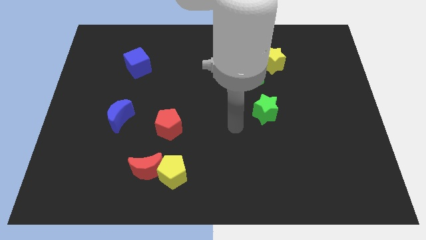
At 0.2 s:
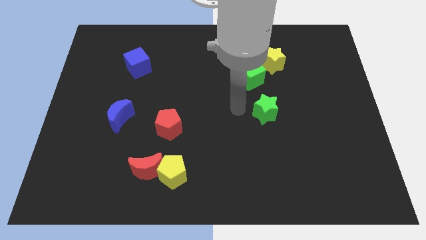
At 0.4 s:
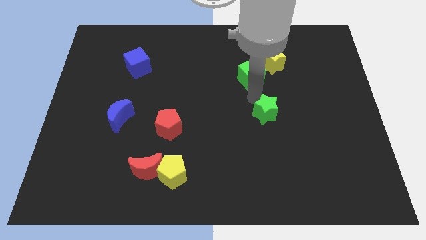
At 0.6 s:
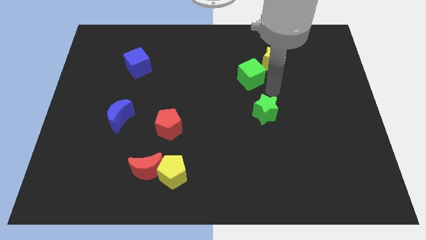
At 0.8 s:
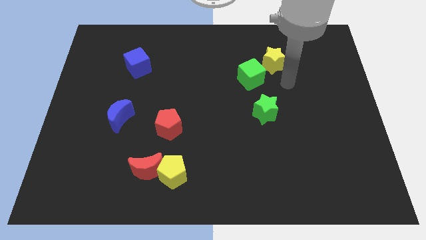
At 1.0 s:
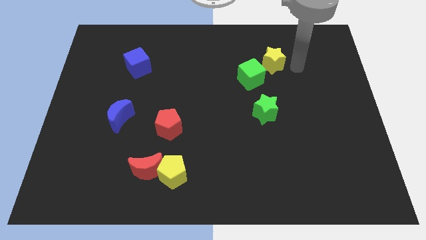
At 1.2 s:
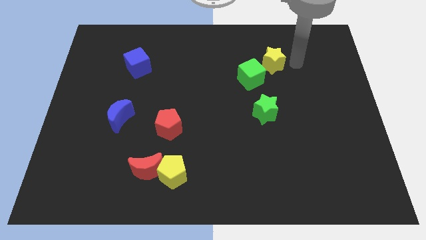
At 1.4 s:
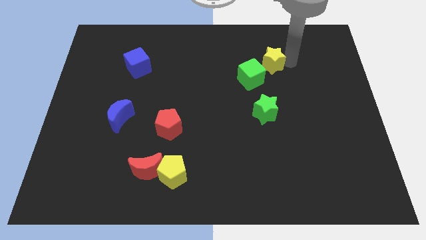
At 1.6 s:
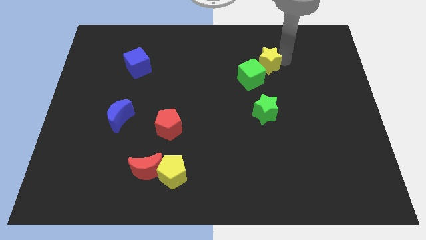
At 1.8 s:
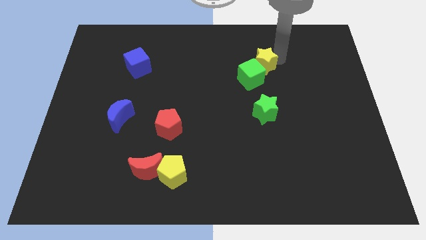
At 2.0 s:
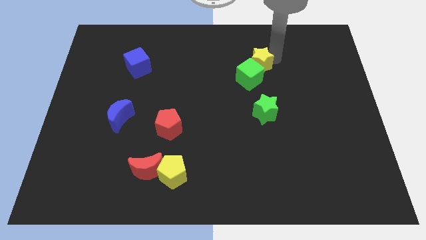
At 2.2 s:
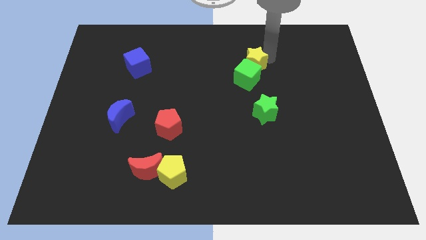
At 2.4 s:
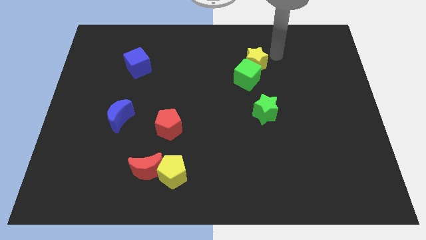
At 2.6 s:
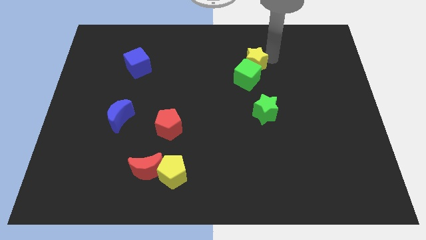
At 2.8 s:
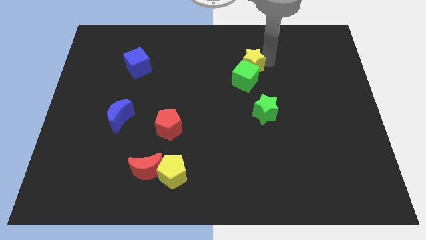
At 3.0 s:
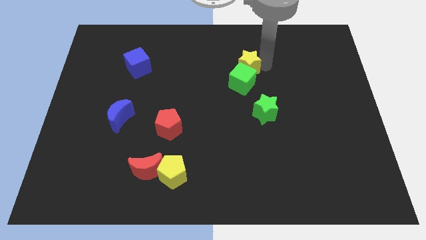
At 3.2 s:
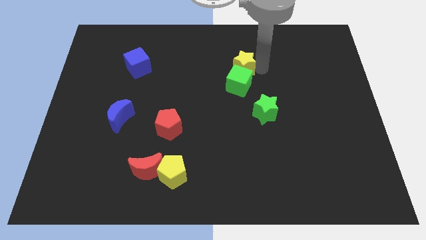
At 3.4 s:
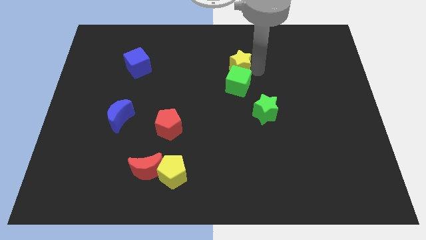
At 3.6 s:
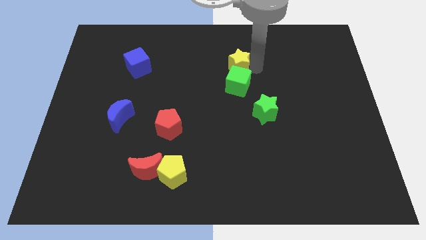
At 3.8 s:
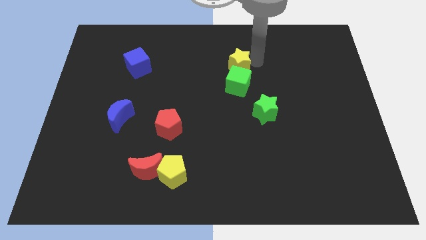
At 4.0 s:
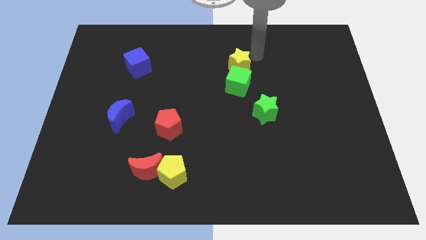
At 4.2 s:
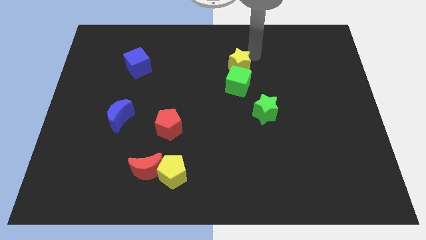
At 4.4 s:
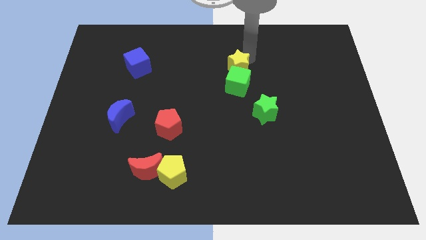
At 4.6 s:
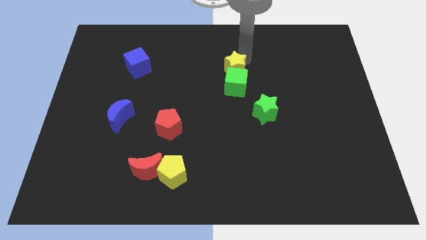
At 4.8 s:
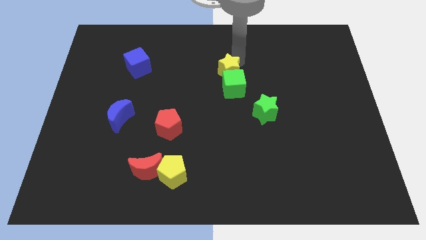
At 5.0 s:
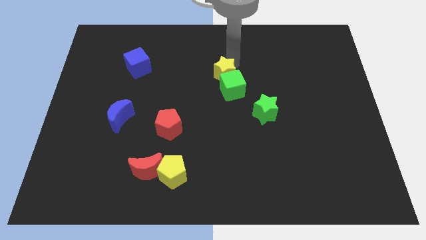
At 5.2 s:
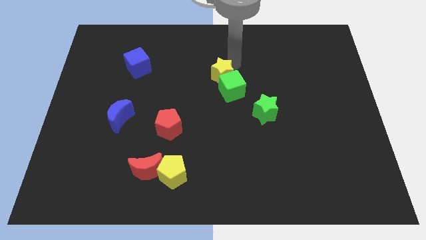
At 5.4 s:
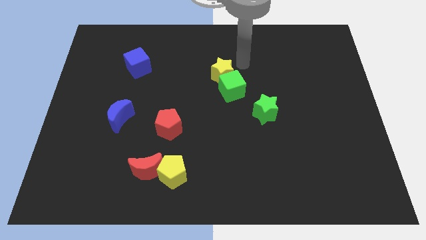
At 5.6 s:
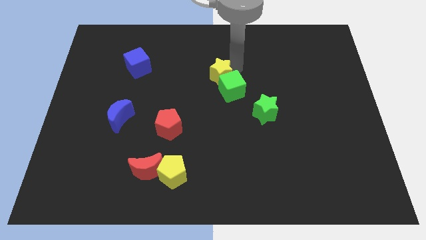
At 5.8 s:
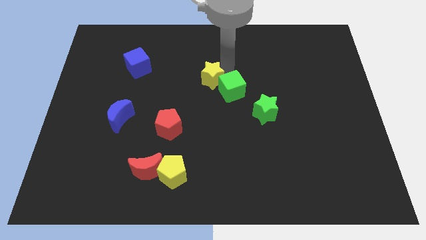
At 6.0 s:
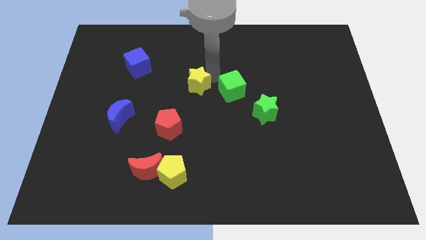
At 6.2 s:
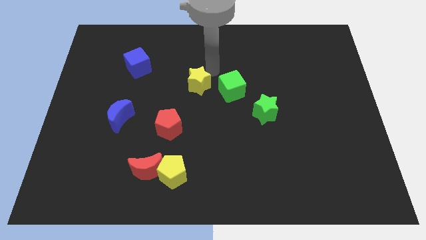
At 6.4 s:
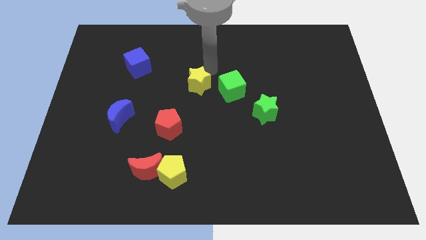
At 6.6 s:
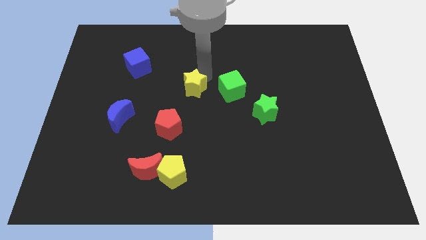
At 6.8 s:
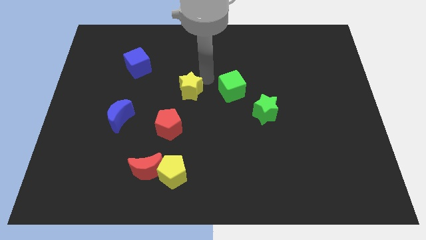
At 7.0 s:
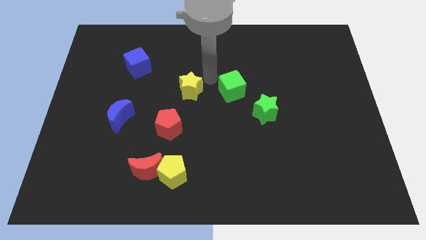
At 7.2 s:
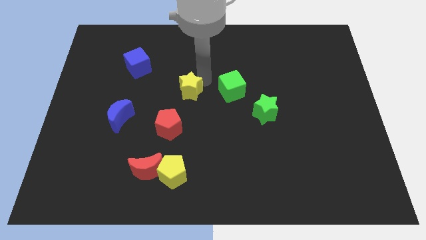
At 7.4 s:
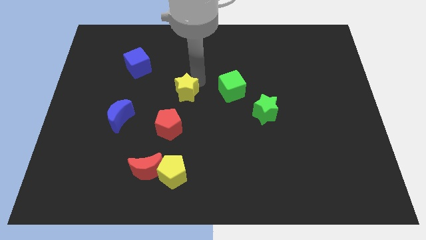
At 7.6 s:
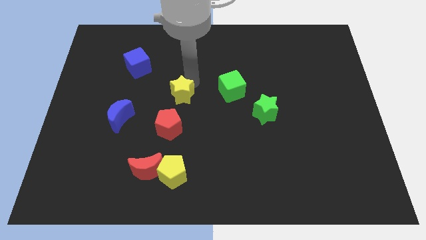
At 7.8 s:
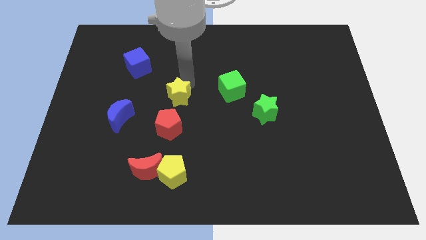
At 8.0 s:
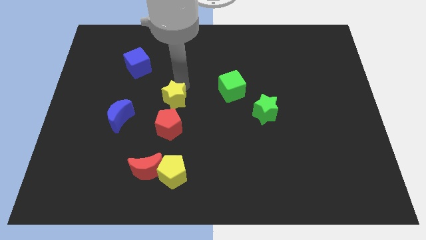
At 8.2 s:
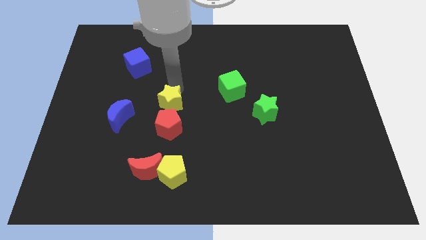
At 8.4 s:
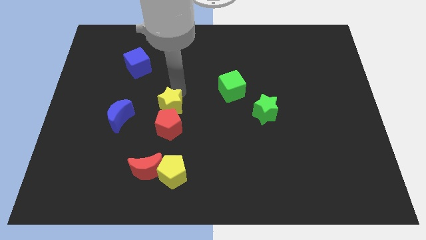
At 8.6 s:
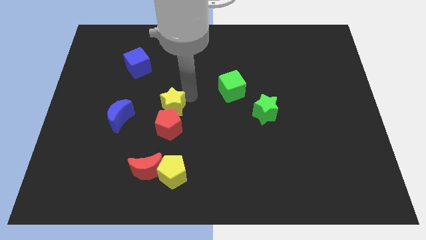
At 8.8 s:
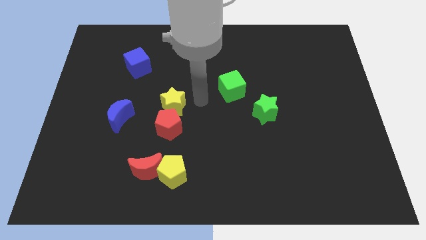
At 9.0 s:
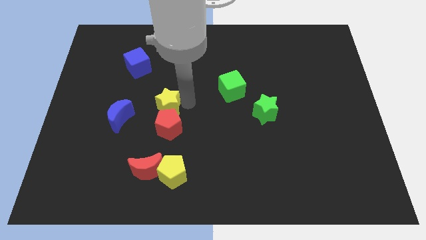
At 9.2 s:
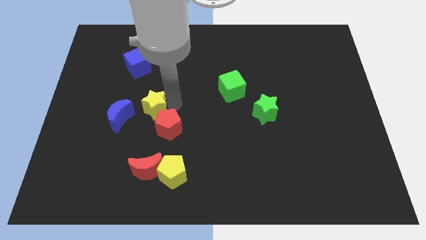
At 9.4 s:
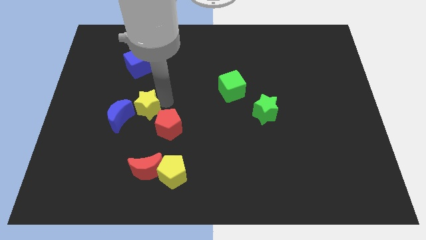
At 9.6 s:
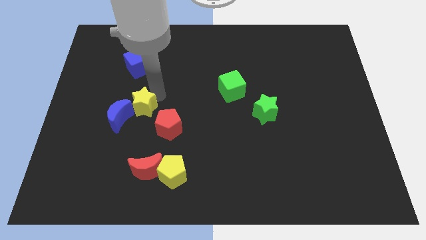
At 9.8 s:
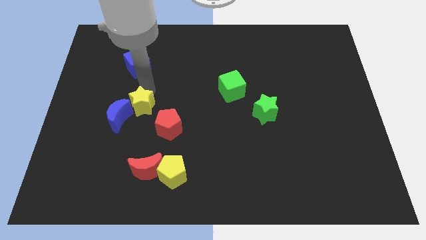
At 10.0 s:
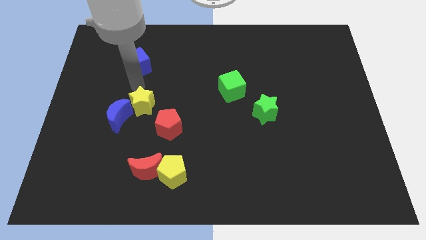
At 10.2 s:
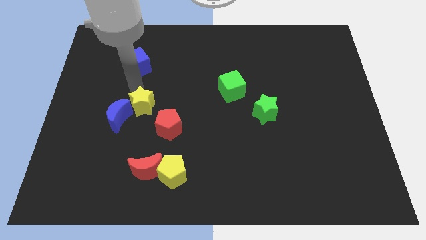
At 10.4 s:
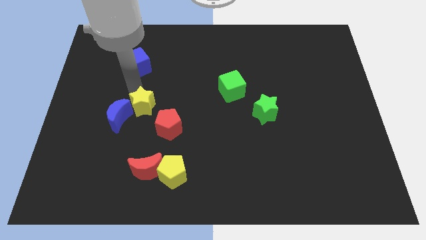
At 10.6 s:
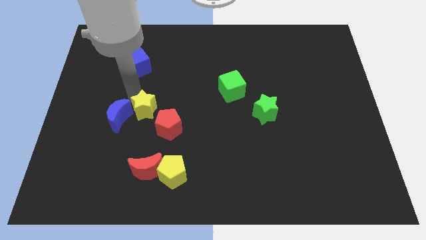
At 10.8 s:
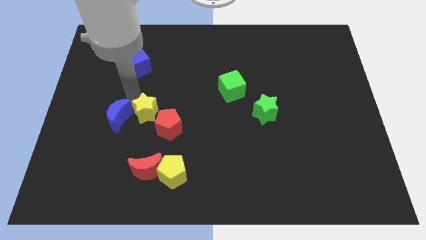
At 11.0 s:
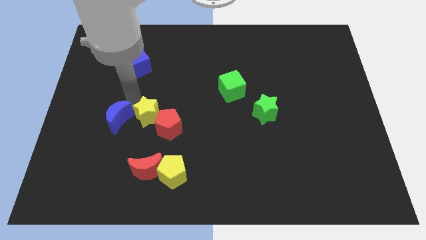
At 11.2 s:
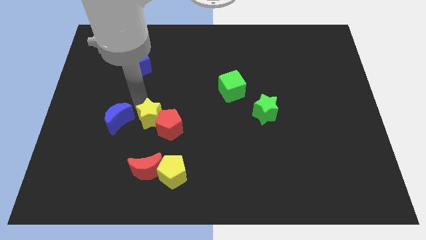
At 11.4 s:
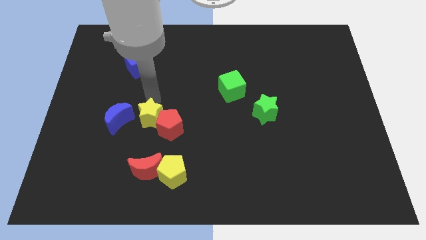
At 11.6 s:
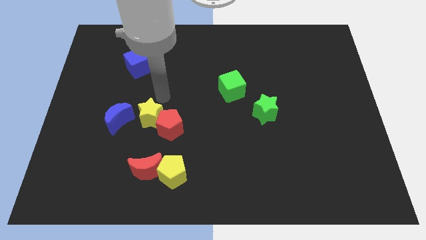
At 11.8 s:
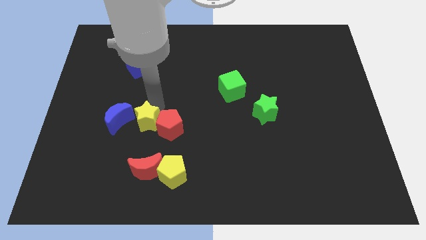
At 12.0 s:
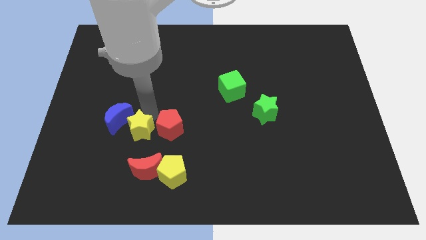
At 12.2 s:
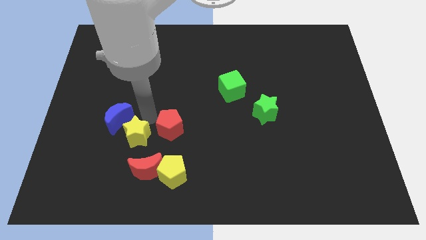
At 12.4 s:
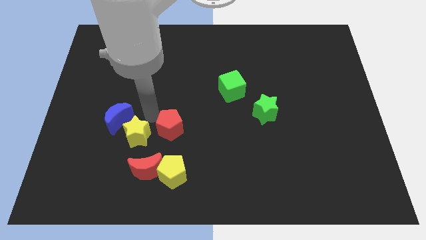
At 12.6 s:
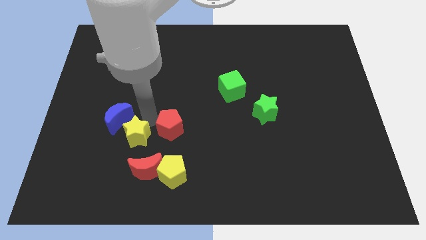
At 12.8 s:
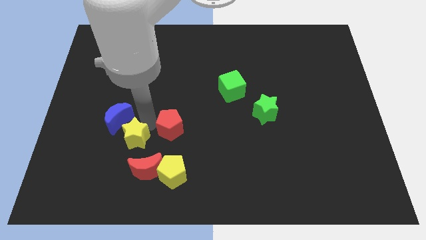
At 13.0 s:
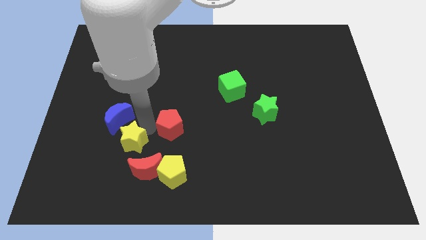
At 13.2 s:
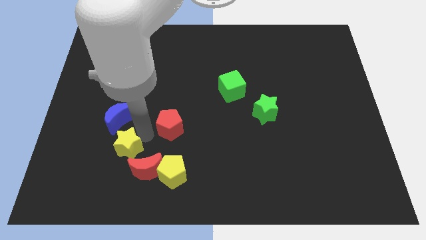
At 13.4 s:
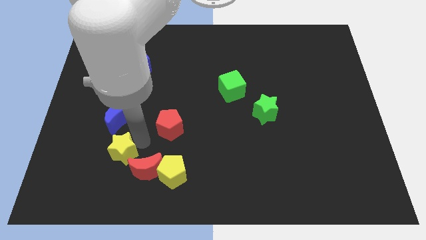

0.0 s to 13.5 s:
put the yellow star to the left of the red moon
